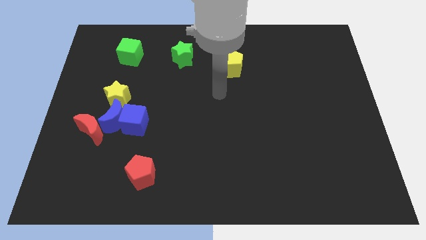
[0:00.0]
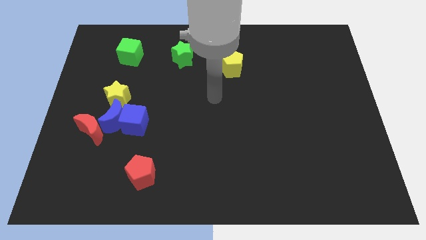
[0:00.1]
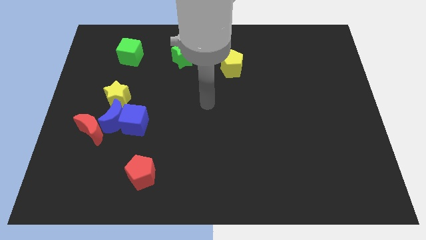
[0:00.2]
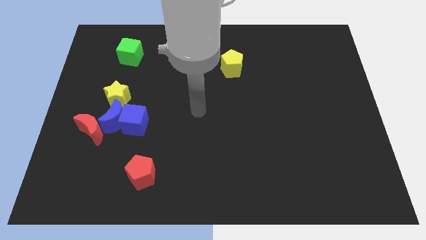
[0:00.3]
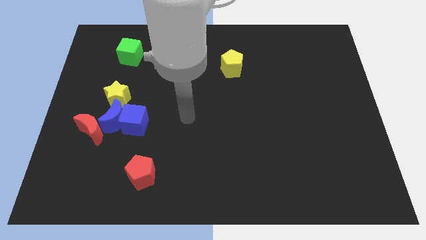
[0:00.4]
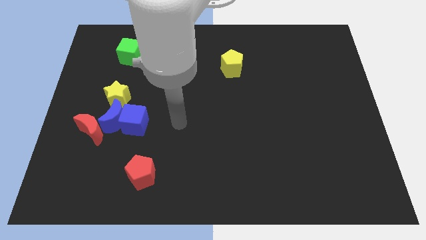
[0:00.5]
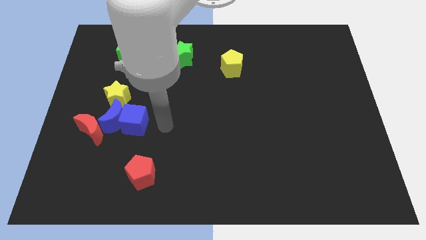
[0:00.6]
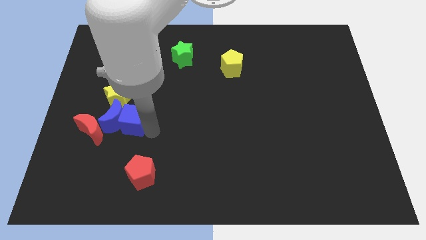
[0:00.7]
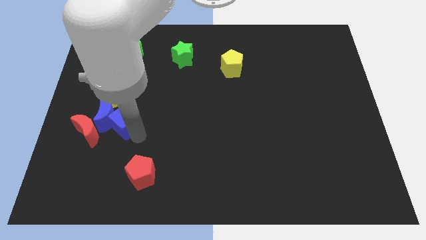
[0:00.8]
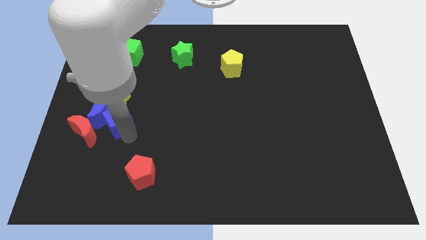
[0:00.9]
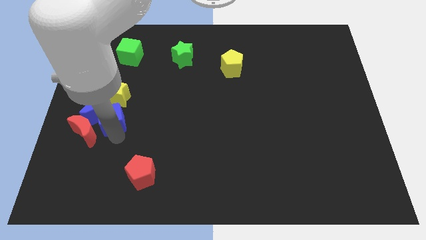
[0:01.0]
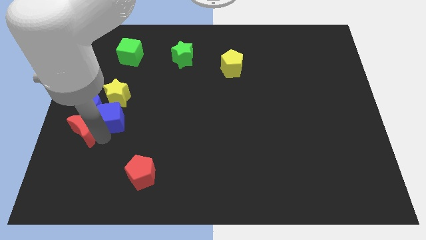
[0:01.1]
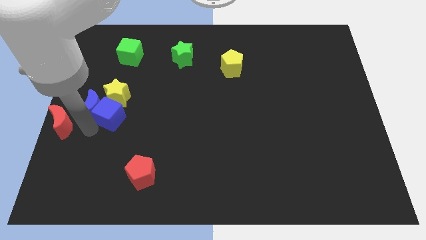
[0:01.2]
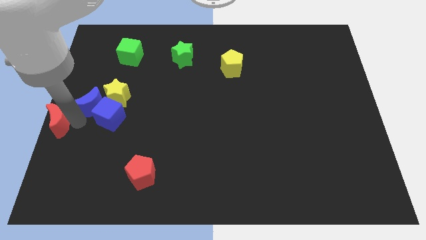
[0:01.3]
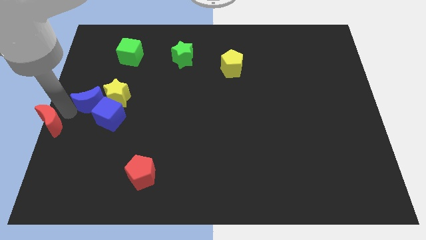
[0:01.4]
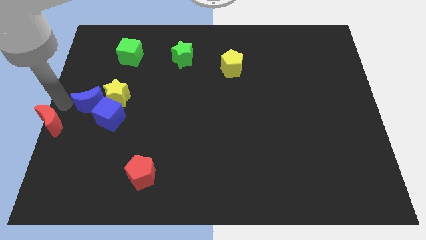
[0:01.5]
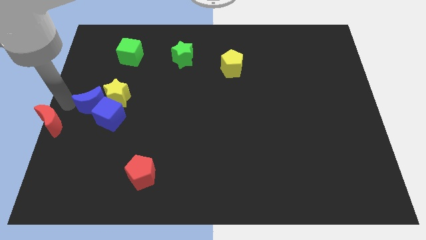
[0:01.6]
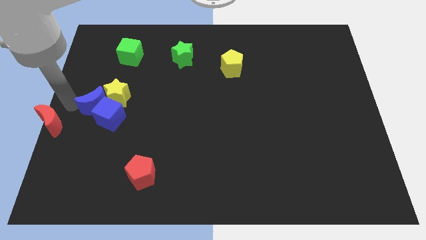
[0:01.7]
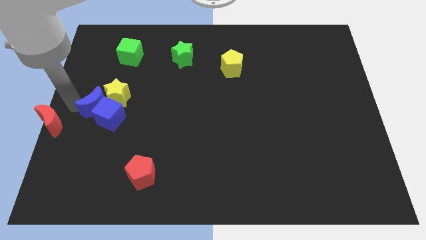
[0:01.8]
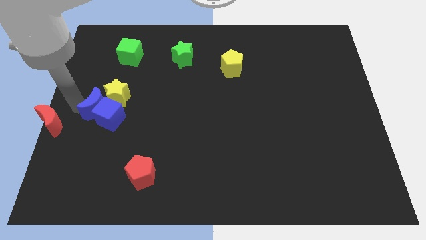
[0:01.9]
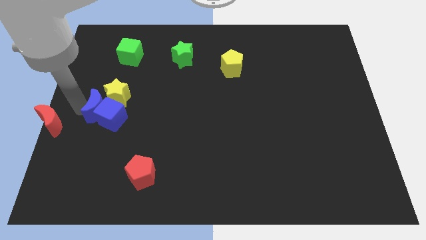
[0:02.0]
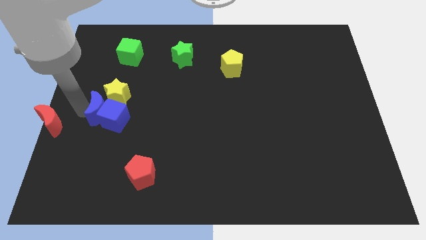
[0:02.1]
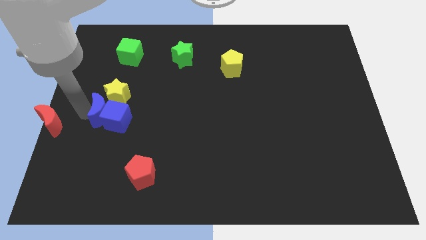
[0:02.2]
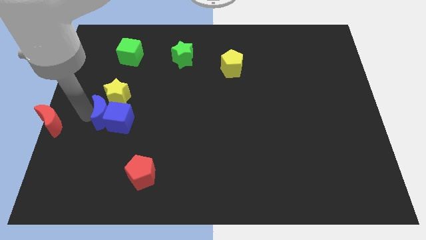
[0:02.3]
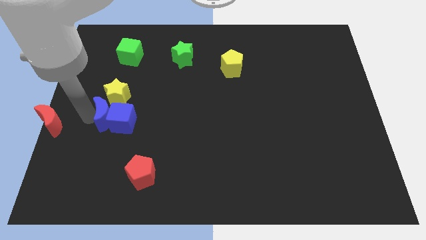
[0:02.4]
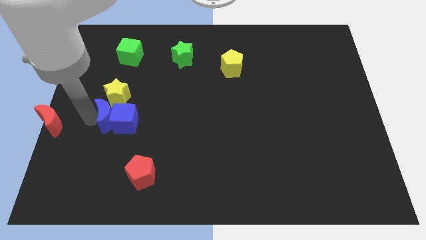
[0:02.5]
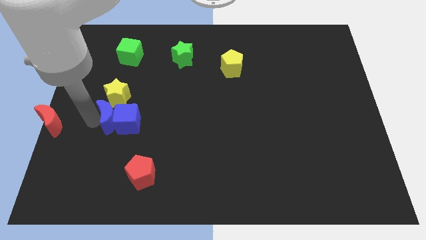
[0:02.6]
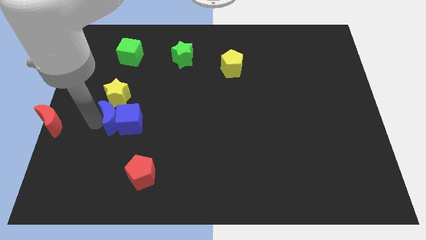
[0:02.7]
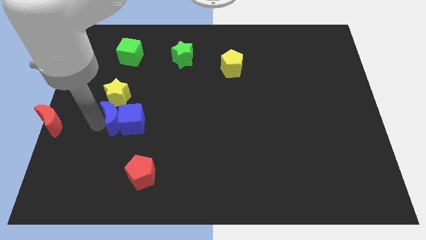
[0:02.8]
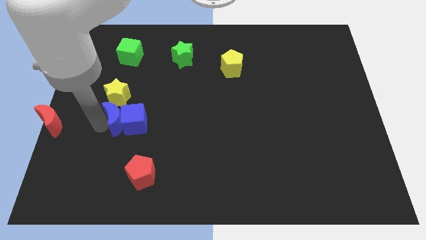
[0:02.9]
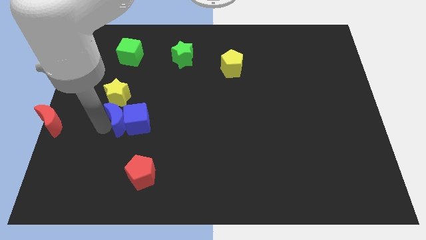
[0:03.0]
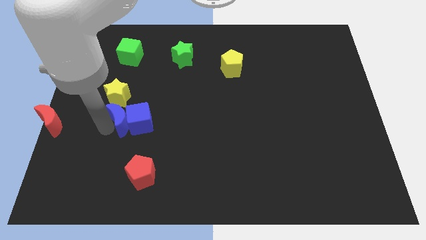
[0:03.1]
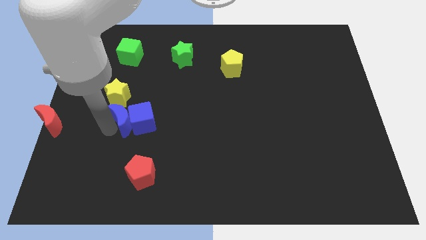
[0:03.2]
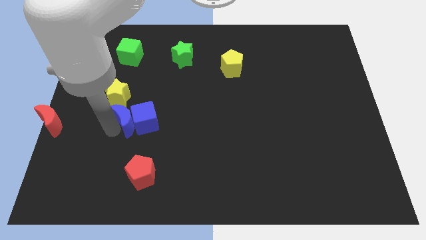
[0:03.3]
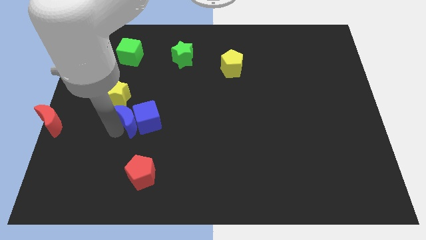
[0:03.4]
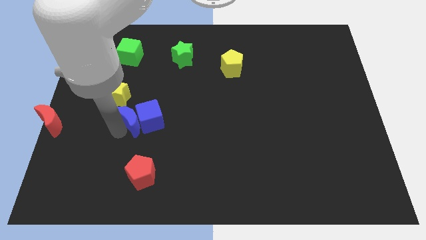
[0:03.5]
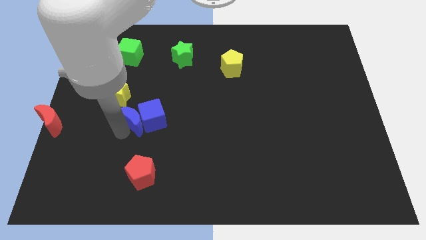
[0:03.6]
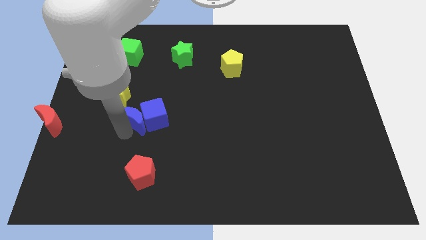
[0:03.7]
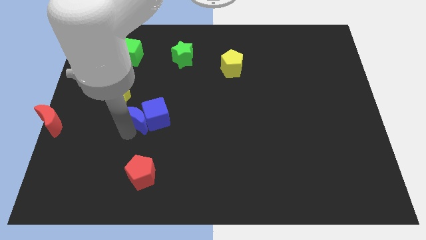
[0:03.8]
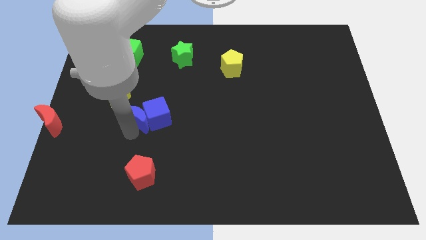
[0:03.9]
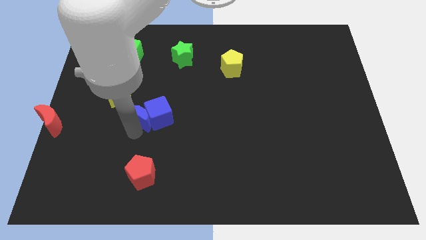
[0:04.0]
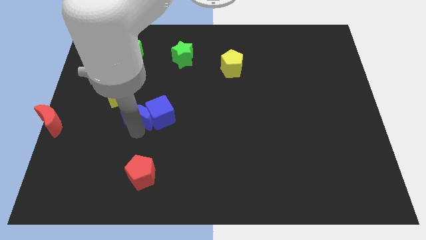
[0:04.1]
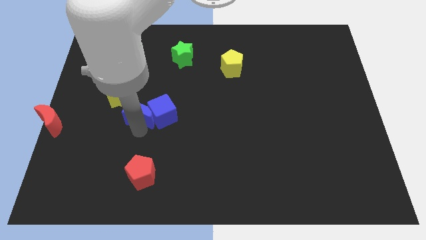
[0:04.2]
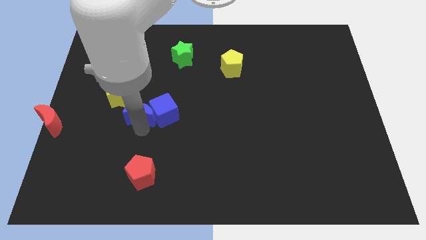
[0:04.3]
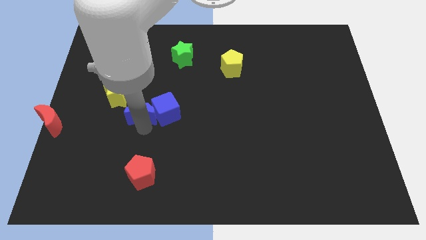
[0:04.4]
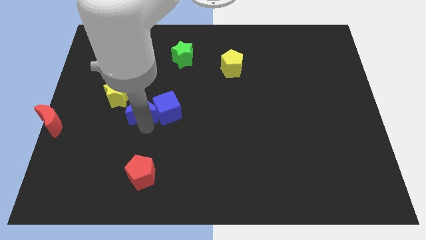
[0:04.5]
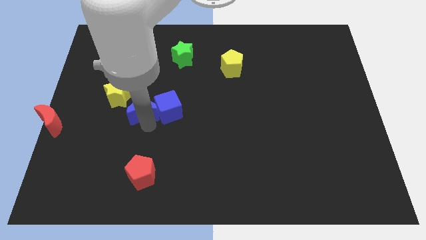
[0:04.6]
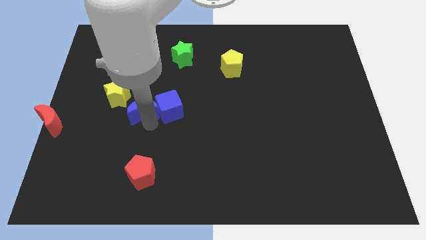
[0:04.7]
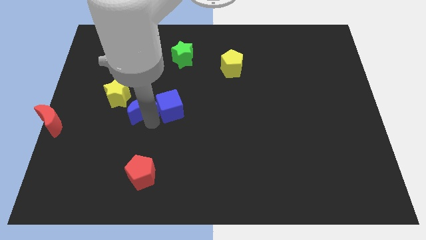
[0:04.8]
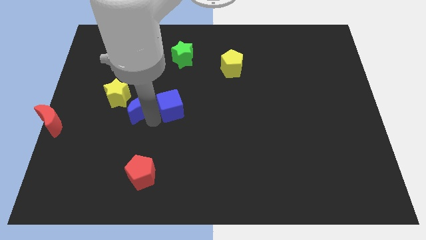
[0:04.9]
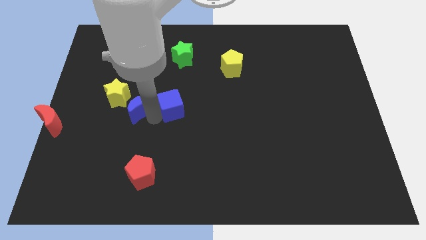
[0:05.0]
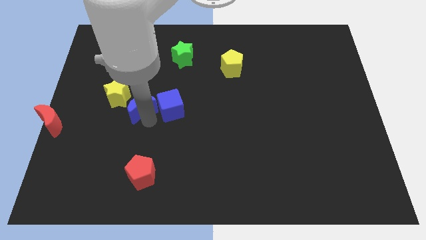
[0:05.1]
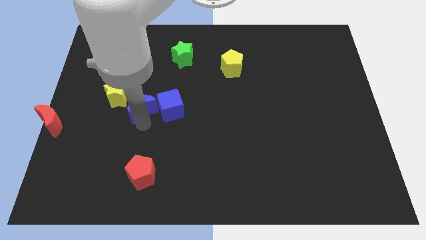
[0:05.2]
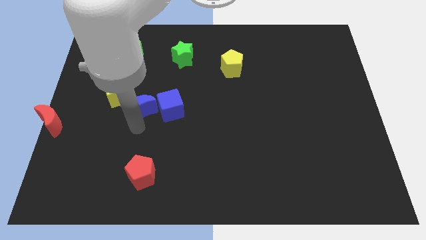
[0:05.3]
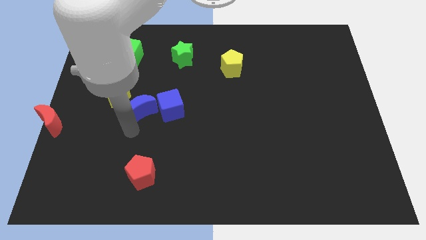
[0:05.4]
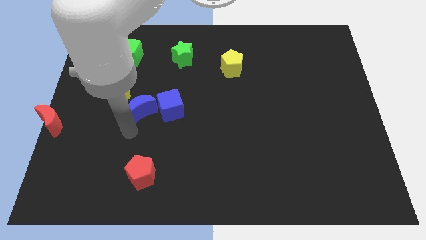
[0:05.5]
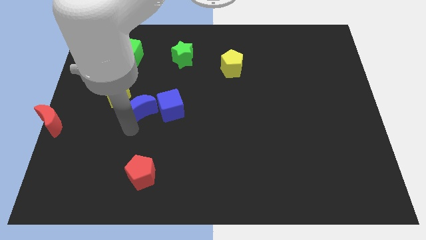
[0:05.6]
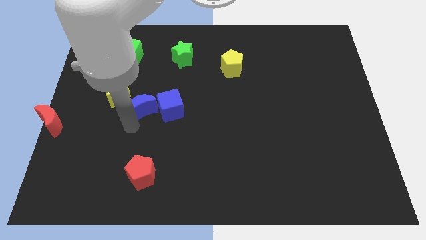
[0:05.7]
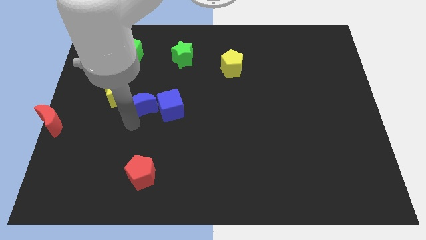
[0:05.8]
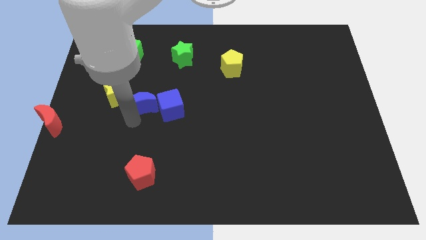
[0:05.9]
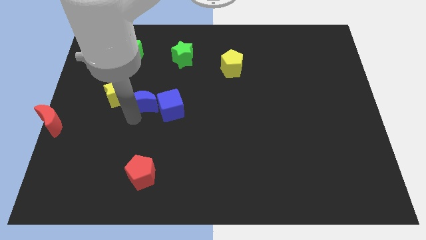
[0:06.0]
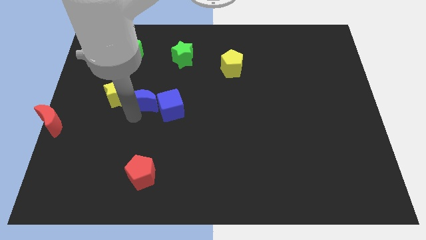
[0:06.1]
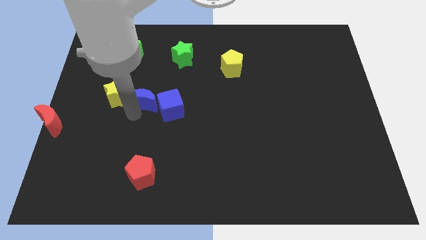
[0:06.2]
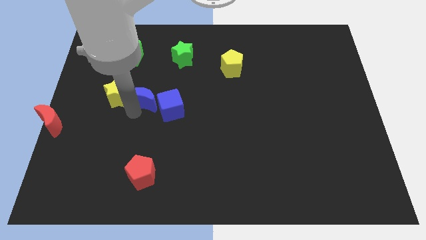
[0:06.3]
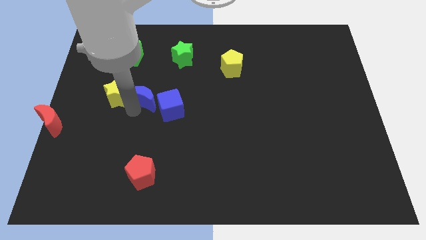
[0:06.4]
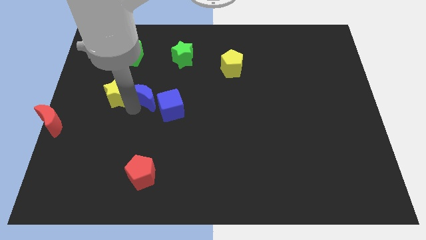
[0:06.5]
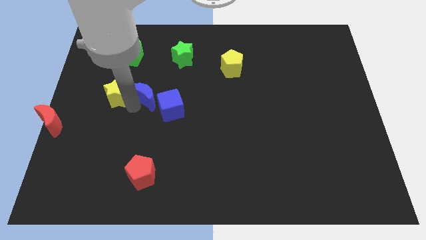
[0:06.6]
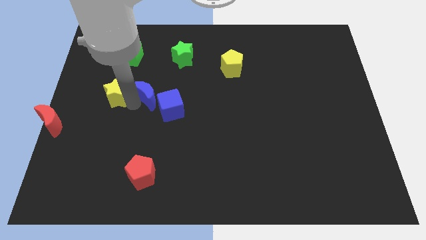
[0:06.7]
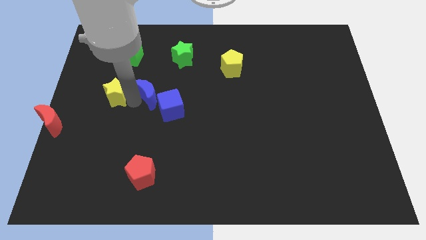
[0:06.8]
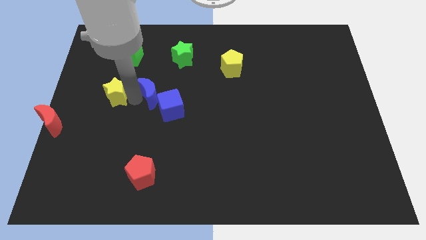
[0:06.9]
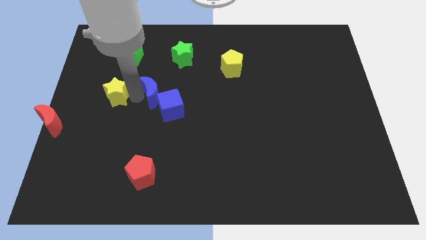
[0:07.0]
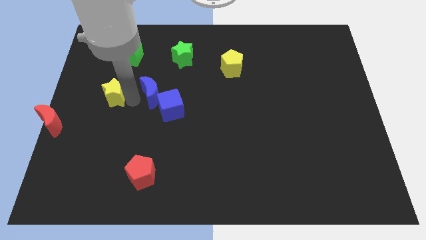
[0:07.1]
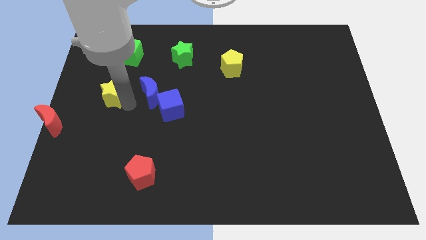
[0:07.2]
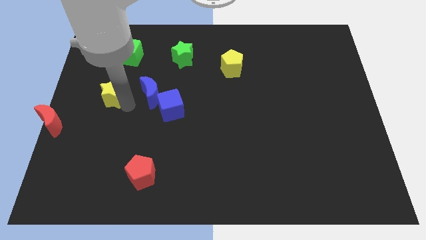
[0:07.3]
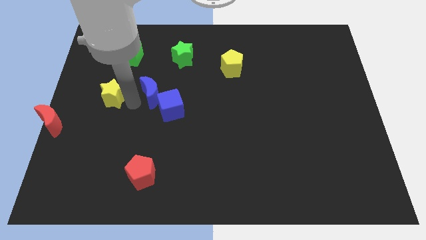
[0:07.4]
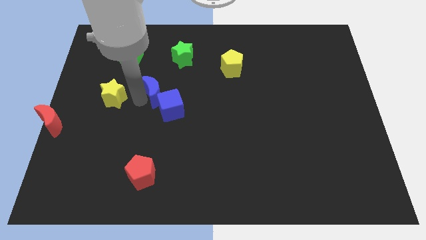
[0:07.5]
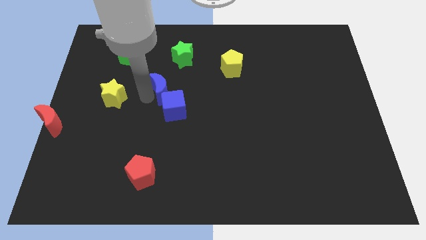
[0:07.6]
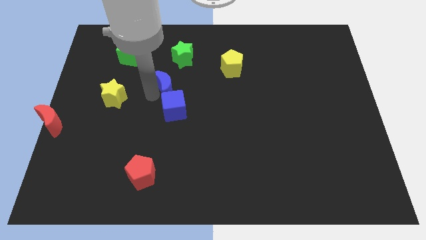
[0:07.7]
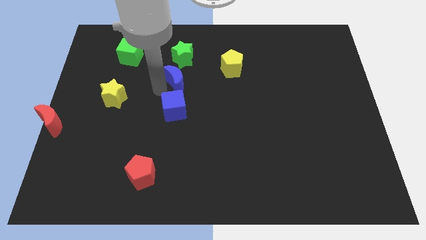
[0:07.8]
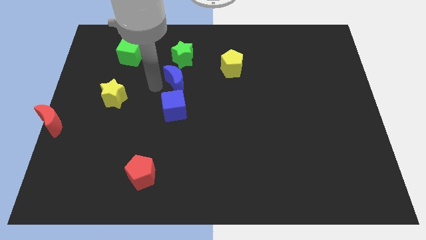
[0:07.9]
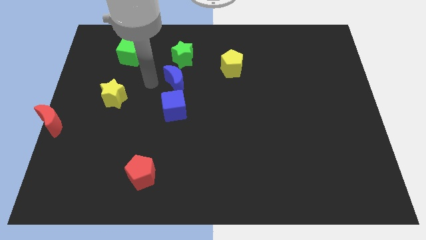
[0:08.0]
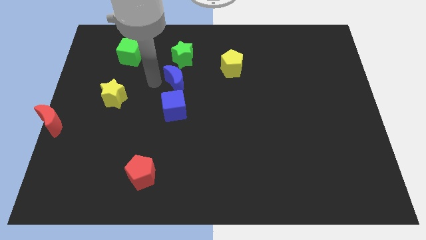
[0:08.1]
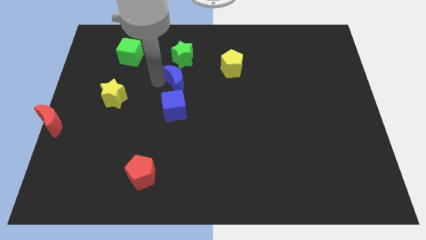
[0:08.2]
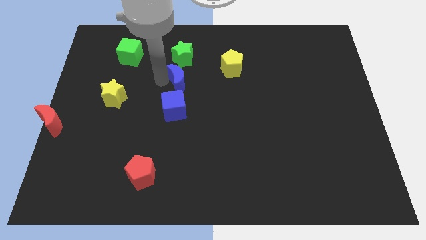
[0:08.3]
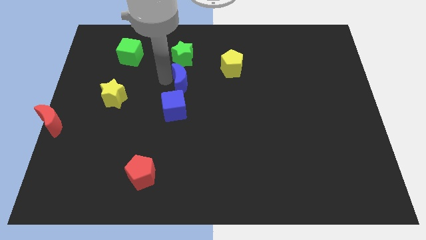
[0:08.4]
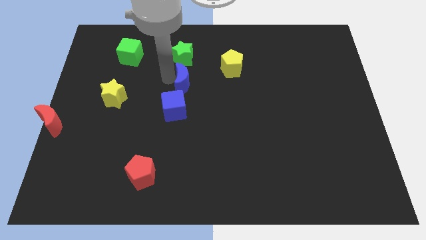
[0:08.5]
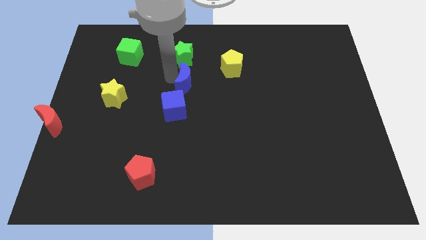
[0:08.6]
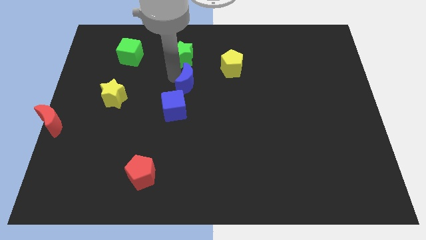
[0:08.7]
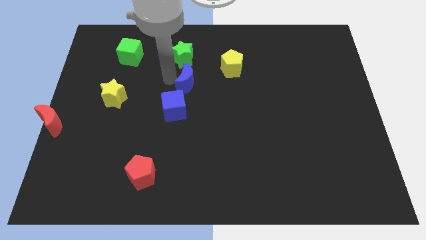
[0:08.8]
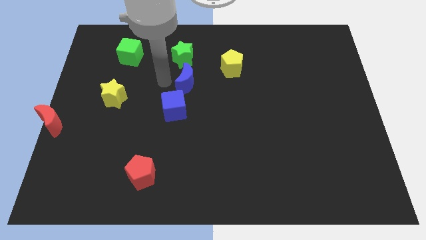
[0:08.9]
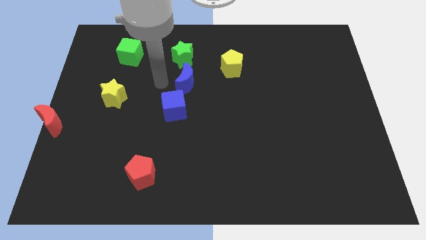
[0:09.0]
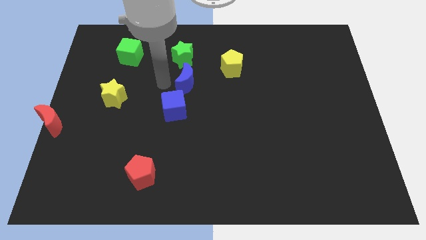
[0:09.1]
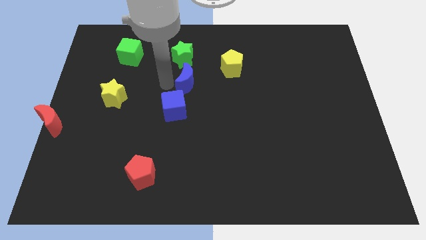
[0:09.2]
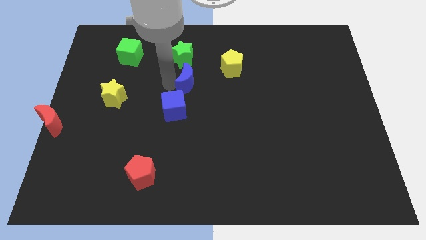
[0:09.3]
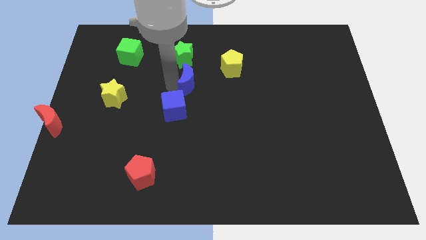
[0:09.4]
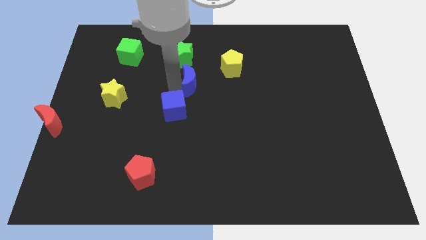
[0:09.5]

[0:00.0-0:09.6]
move the blue moon to the bottom left of the yellow pentagon
